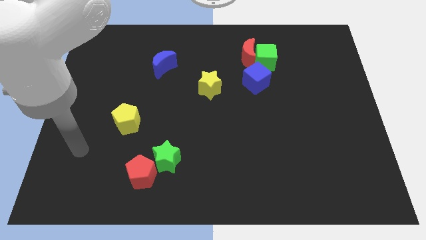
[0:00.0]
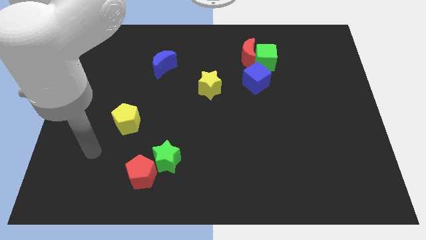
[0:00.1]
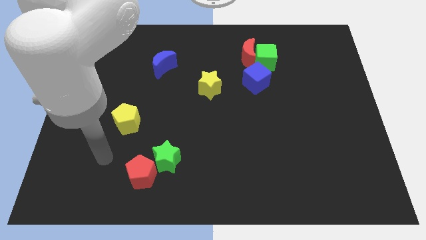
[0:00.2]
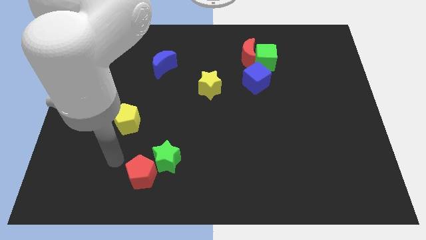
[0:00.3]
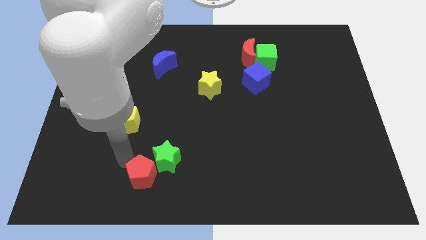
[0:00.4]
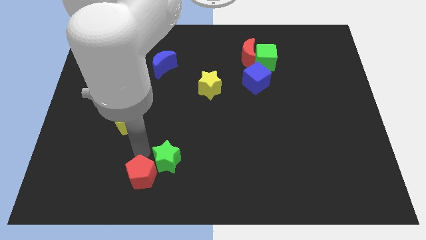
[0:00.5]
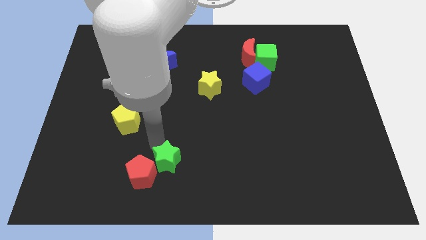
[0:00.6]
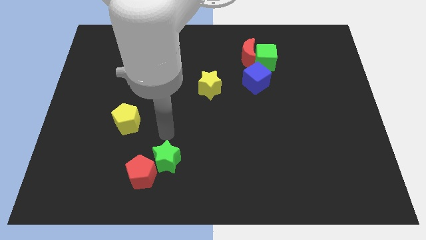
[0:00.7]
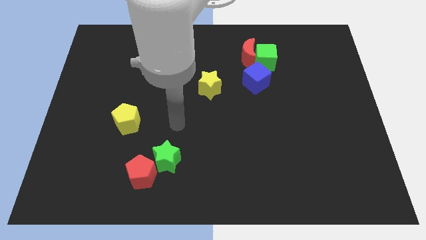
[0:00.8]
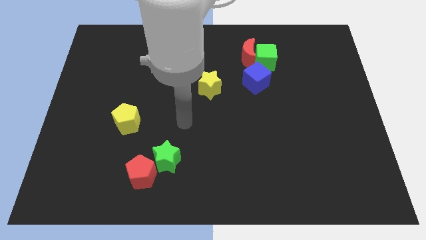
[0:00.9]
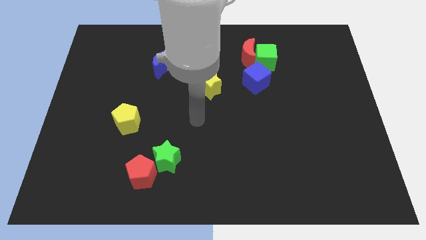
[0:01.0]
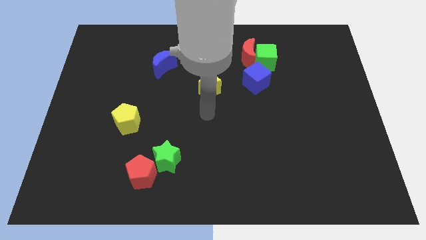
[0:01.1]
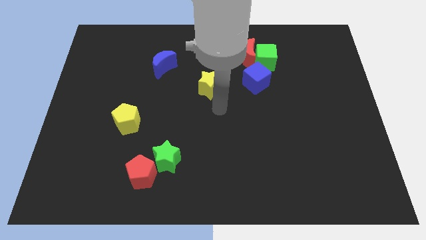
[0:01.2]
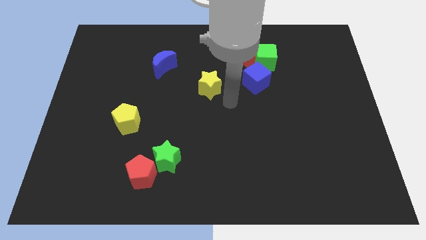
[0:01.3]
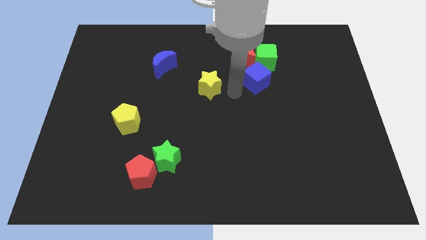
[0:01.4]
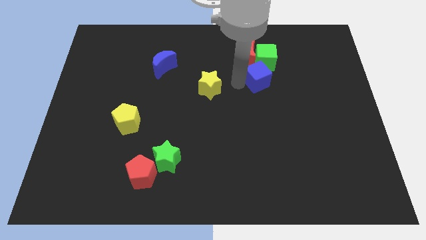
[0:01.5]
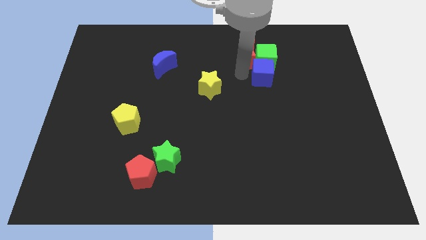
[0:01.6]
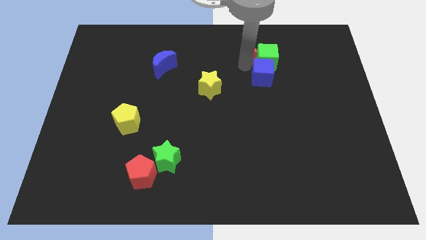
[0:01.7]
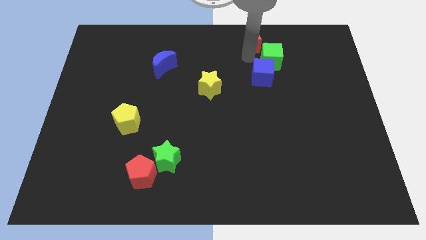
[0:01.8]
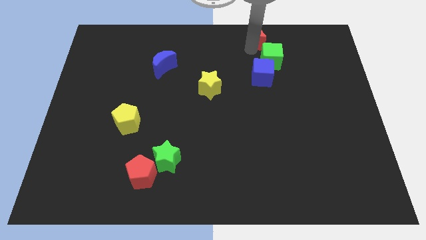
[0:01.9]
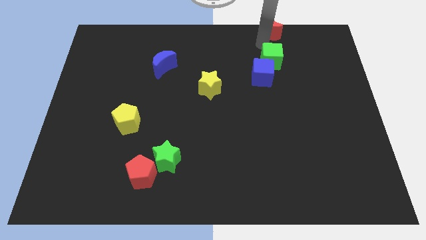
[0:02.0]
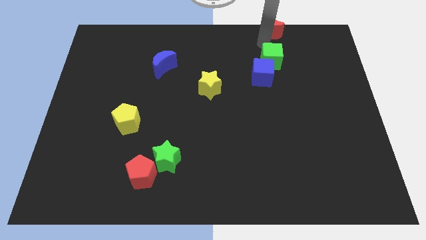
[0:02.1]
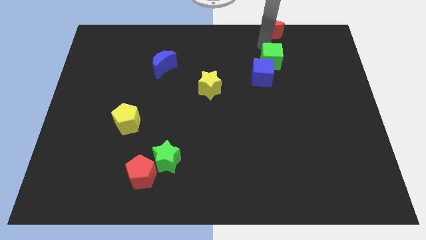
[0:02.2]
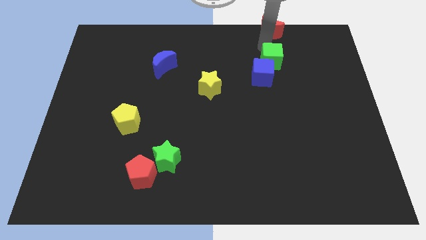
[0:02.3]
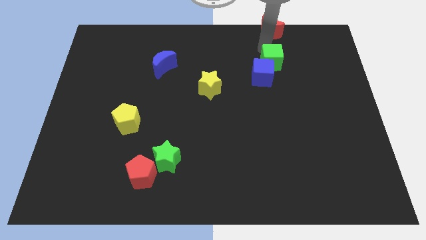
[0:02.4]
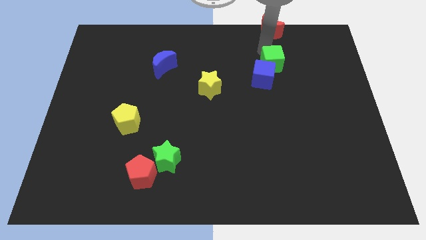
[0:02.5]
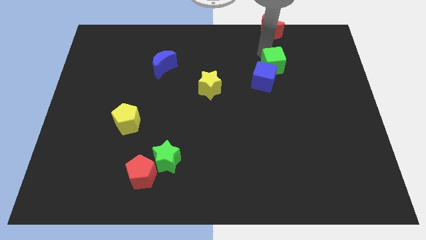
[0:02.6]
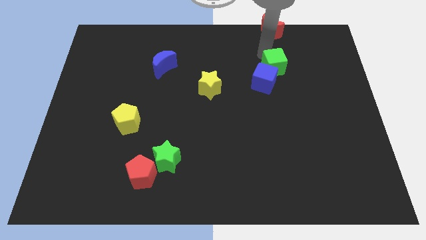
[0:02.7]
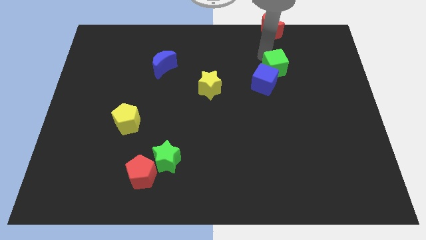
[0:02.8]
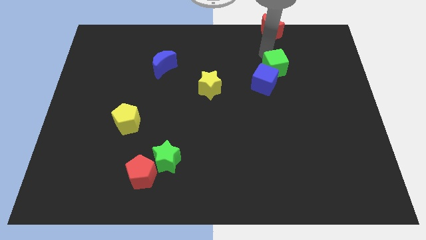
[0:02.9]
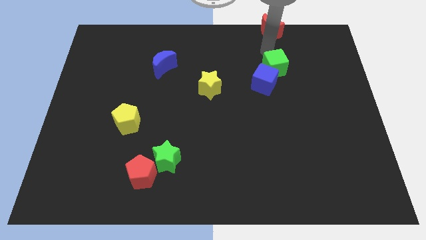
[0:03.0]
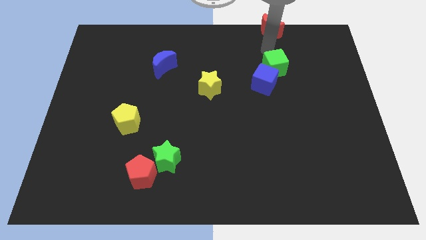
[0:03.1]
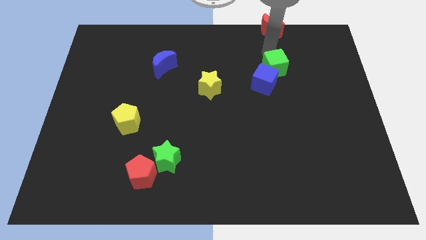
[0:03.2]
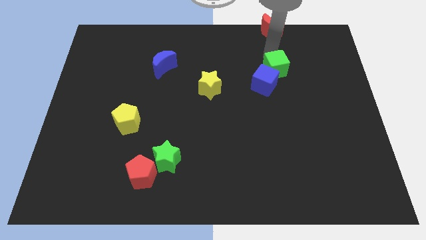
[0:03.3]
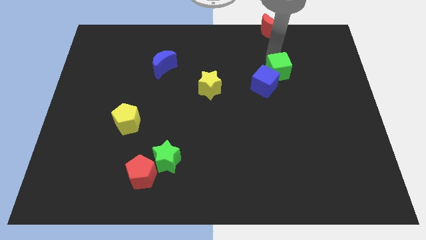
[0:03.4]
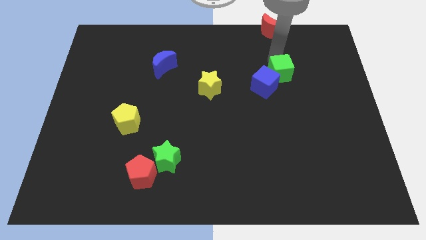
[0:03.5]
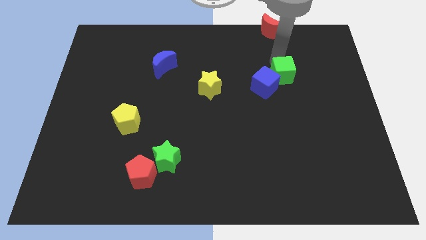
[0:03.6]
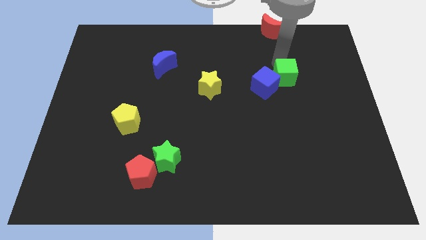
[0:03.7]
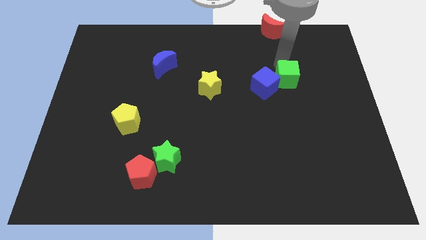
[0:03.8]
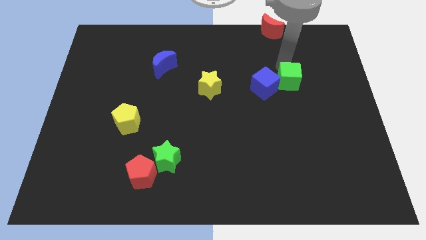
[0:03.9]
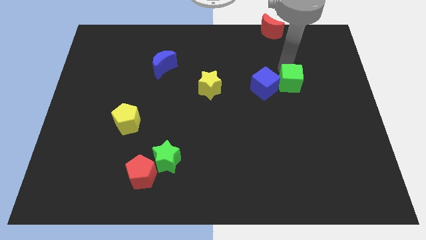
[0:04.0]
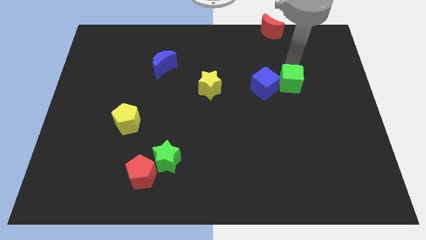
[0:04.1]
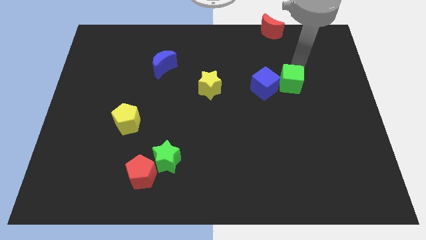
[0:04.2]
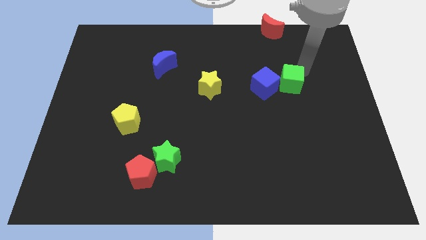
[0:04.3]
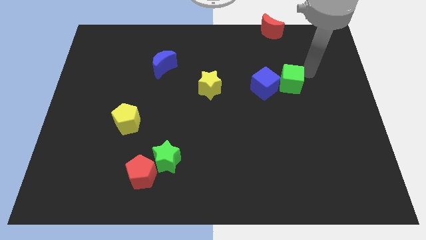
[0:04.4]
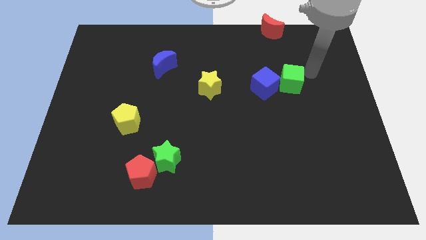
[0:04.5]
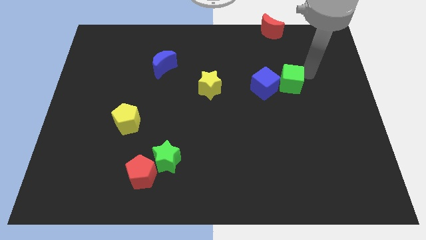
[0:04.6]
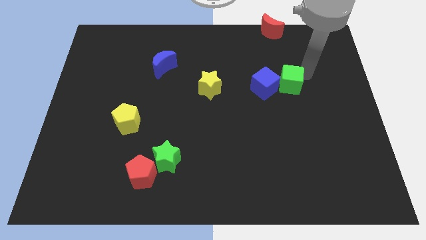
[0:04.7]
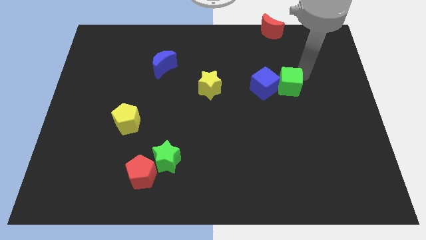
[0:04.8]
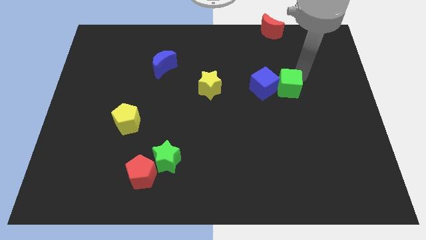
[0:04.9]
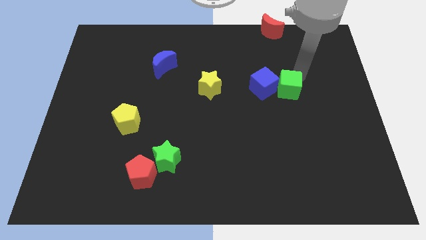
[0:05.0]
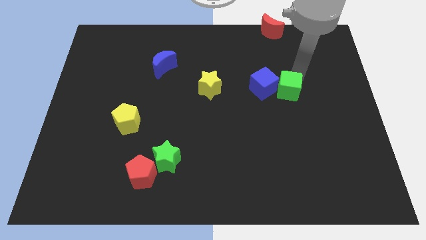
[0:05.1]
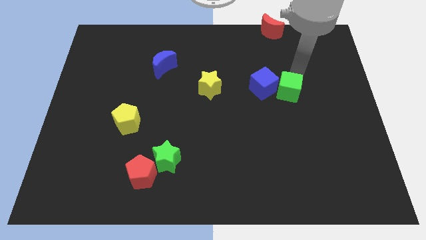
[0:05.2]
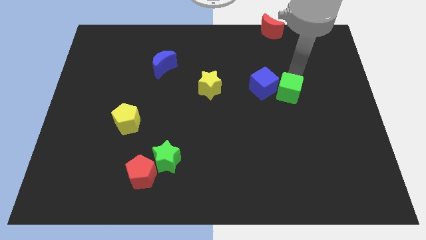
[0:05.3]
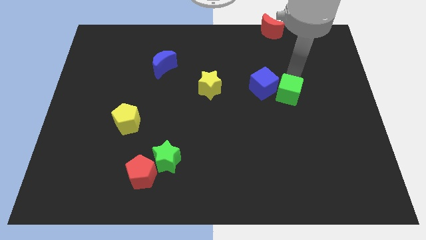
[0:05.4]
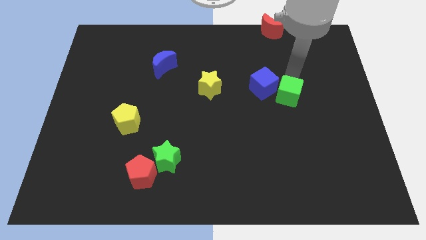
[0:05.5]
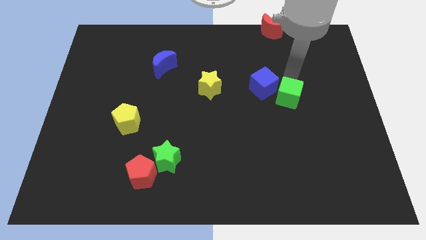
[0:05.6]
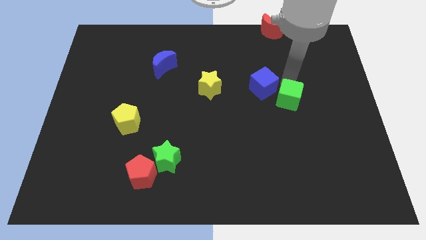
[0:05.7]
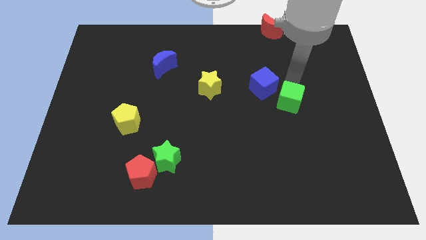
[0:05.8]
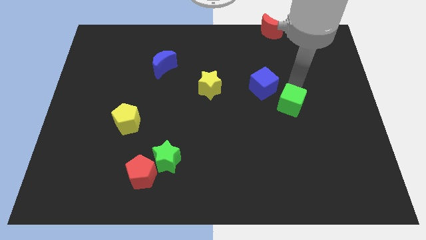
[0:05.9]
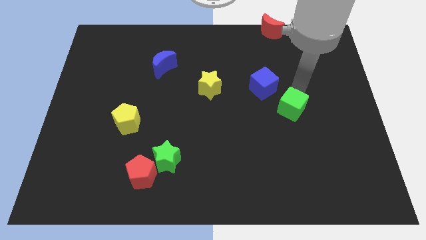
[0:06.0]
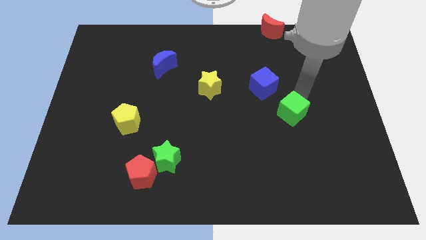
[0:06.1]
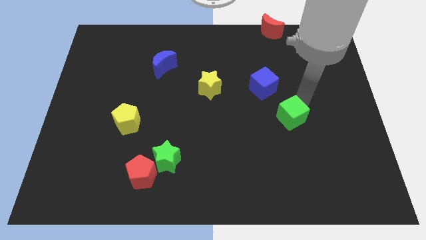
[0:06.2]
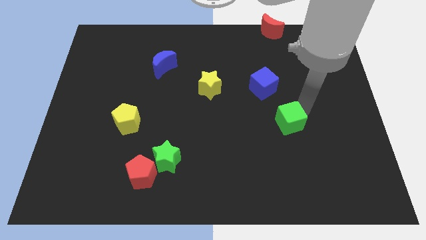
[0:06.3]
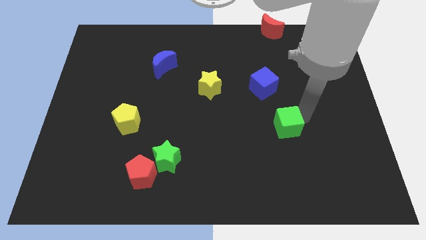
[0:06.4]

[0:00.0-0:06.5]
put the green cube below the blue cube

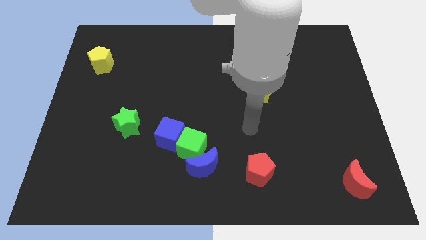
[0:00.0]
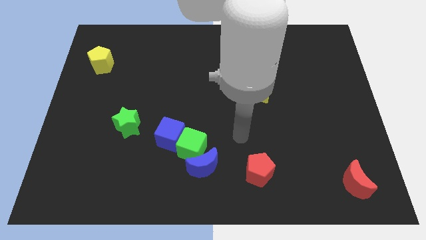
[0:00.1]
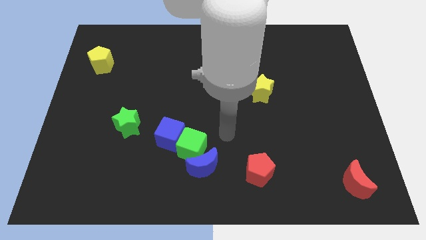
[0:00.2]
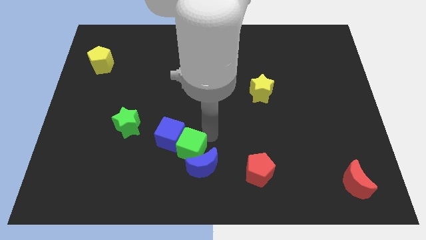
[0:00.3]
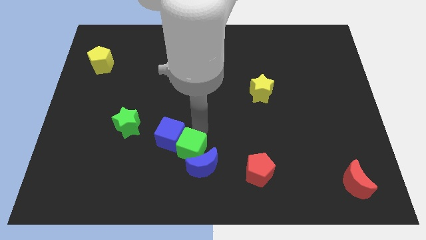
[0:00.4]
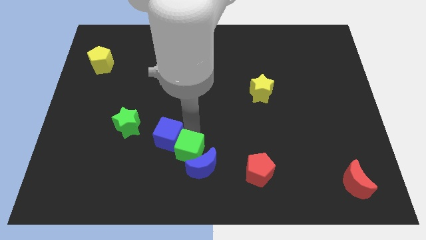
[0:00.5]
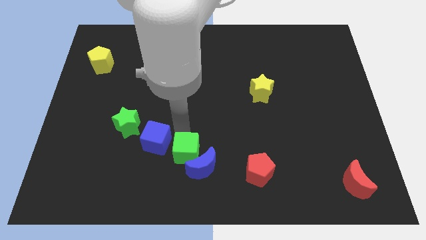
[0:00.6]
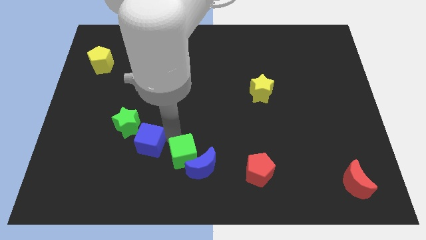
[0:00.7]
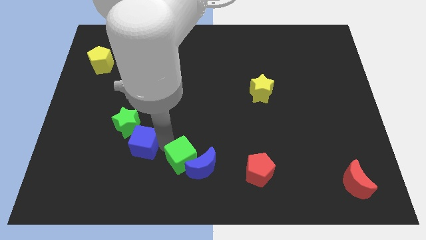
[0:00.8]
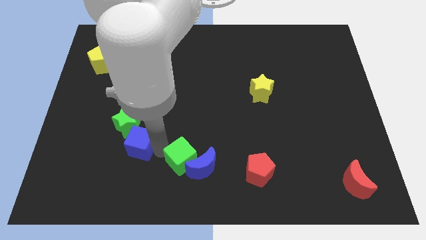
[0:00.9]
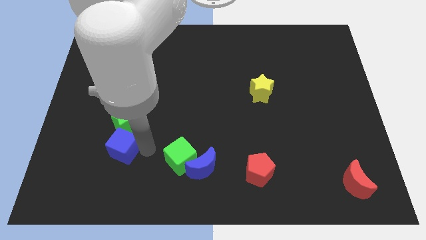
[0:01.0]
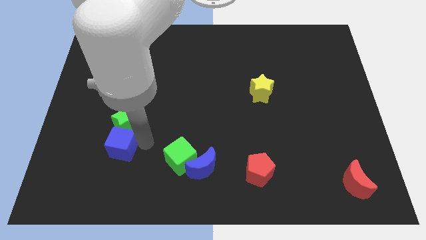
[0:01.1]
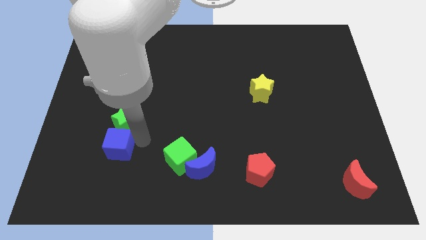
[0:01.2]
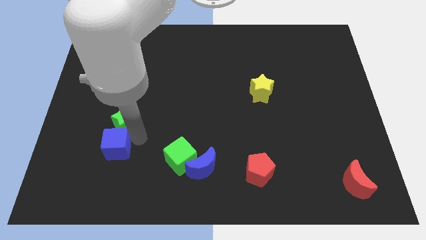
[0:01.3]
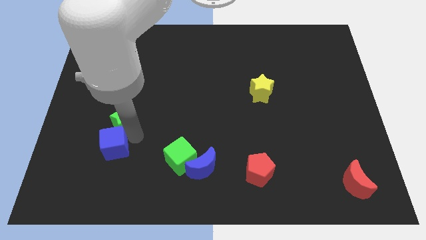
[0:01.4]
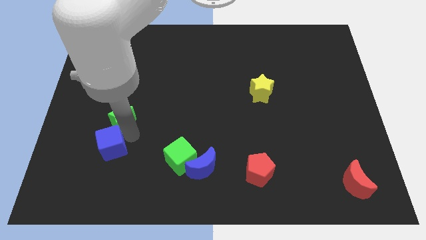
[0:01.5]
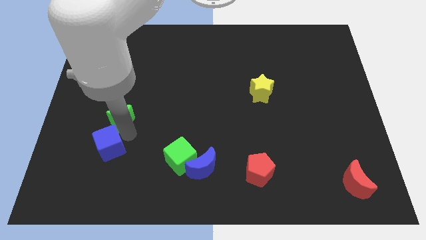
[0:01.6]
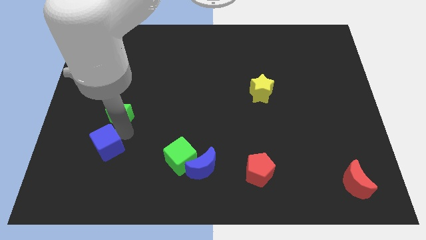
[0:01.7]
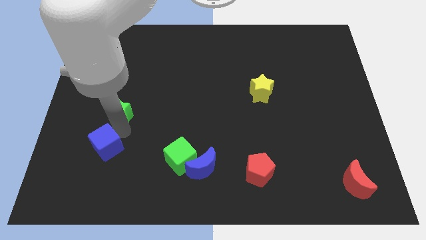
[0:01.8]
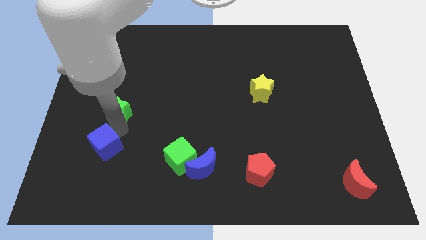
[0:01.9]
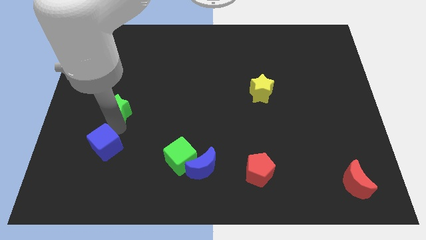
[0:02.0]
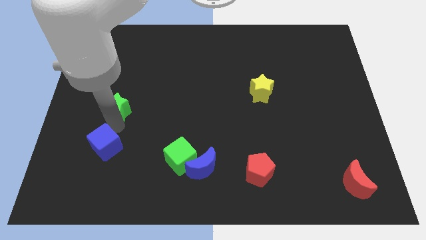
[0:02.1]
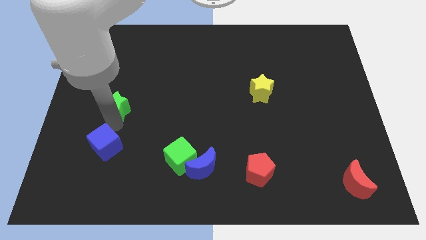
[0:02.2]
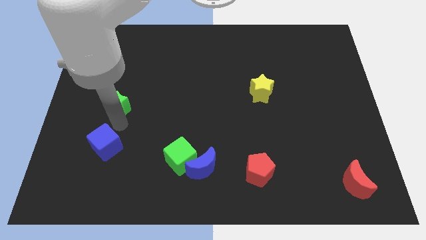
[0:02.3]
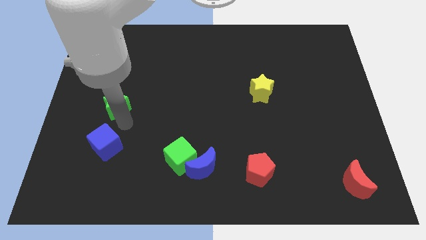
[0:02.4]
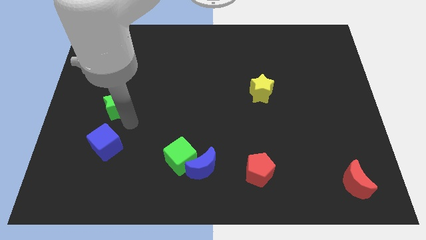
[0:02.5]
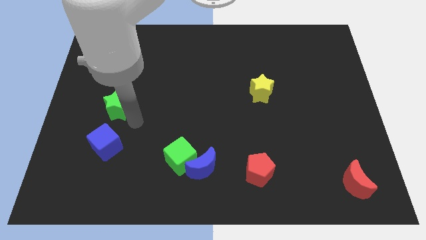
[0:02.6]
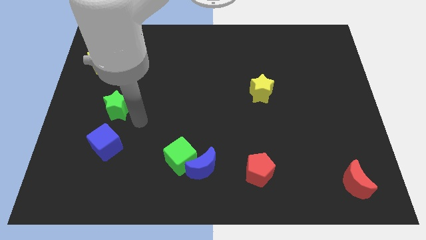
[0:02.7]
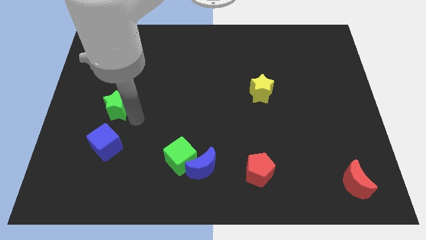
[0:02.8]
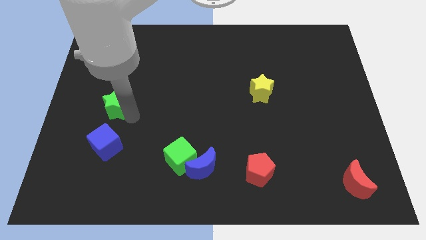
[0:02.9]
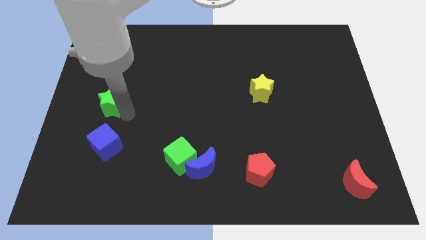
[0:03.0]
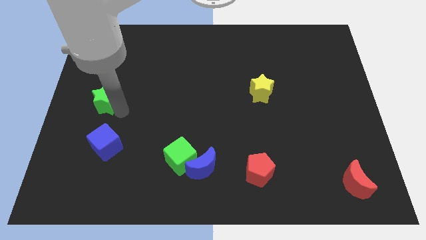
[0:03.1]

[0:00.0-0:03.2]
push the green star to the bottom of the yellow pentagon
